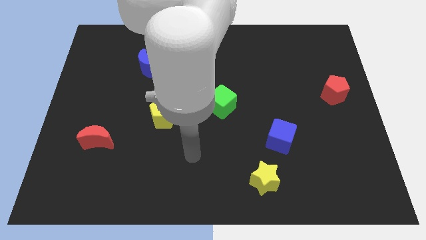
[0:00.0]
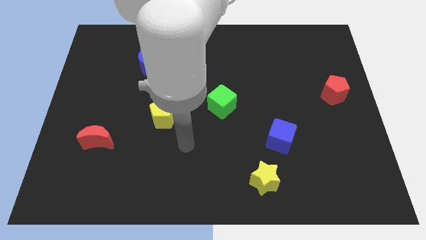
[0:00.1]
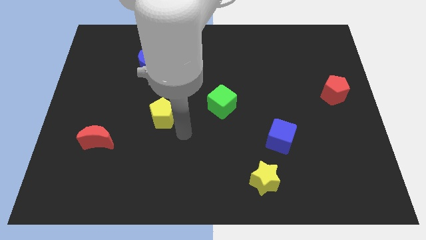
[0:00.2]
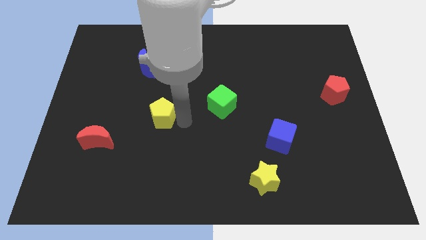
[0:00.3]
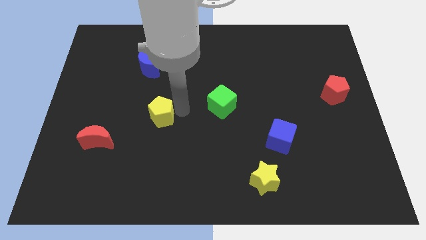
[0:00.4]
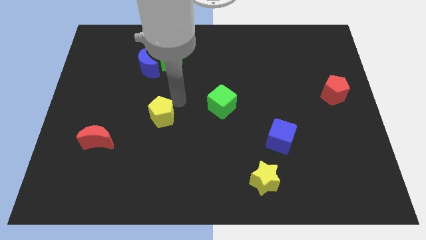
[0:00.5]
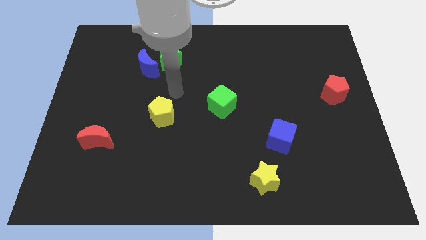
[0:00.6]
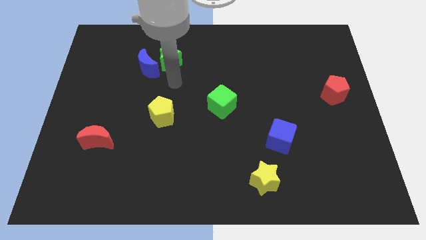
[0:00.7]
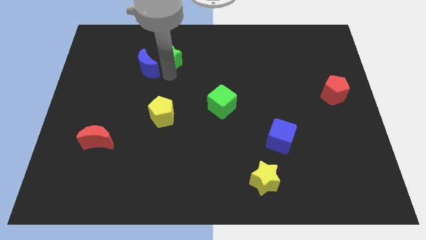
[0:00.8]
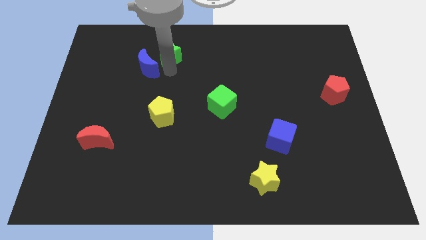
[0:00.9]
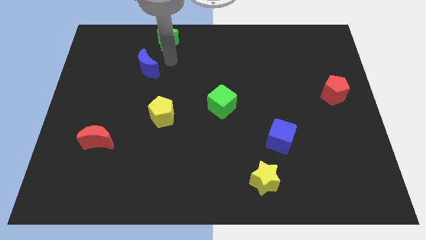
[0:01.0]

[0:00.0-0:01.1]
separate the blue moon from the green star

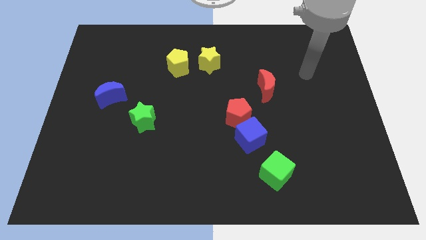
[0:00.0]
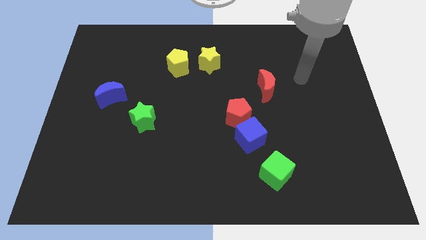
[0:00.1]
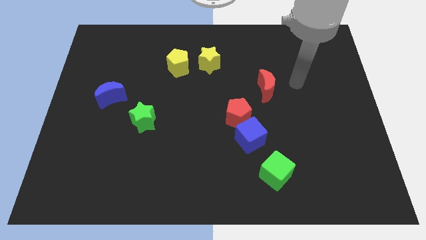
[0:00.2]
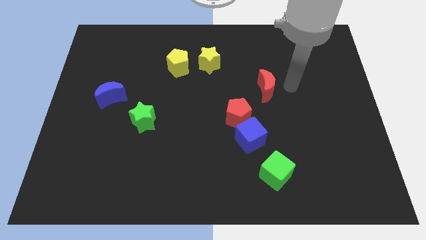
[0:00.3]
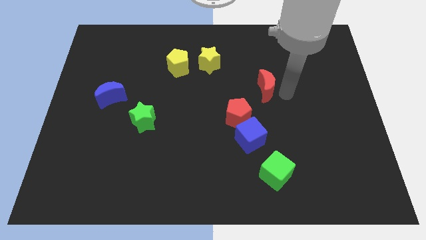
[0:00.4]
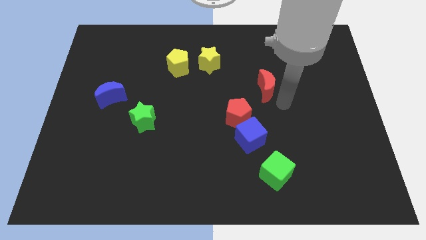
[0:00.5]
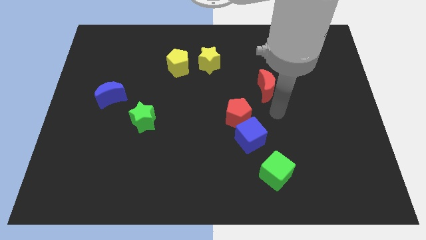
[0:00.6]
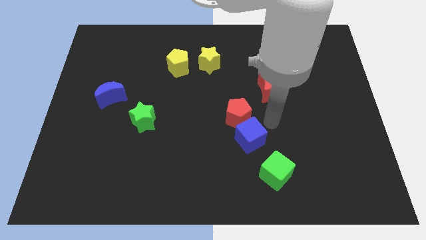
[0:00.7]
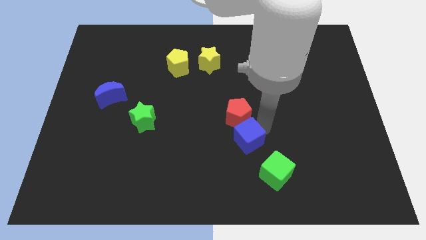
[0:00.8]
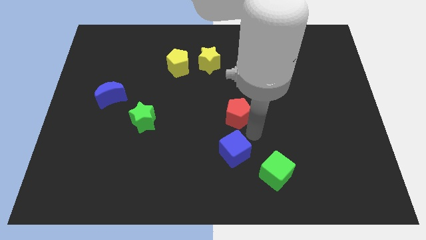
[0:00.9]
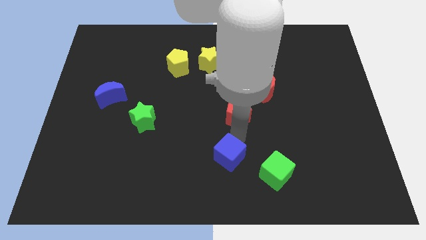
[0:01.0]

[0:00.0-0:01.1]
separate the red pentagon from the blue cube

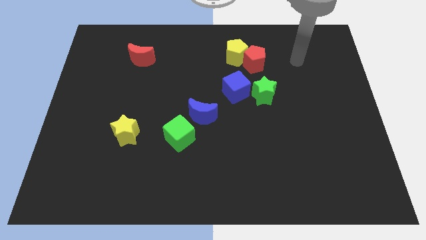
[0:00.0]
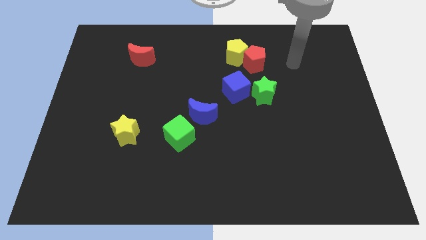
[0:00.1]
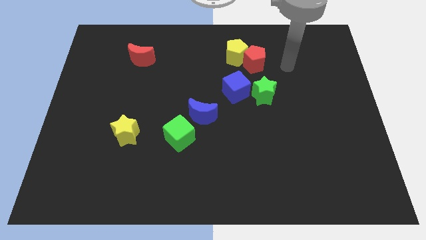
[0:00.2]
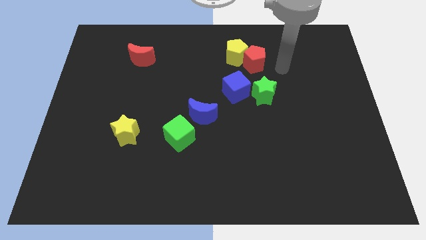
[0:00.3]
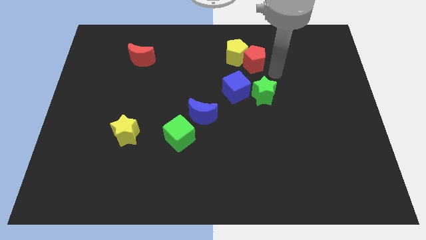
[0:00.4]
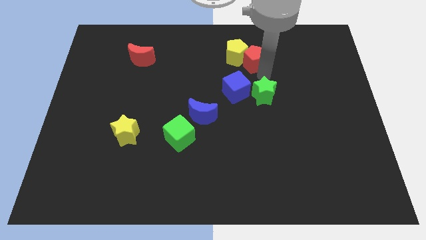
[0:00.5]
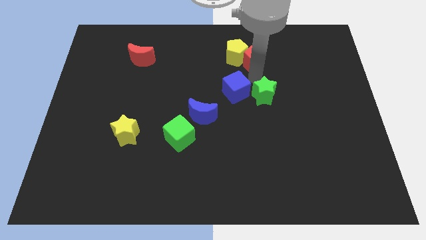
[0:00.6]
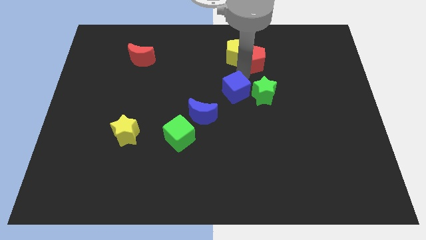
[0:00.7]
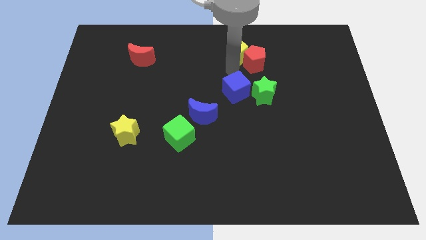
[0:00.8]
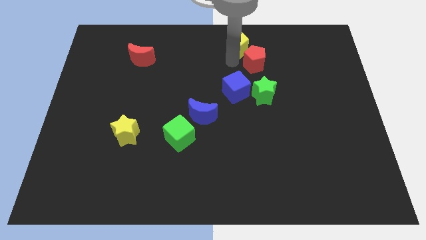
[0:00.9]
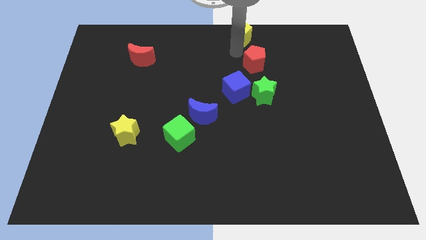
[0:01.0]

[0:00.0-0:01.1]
separate the red pentagon from the yellow pentagon

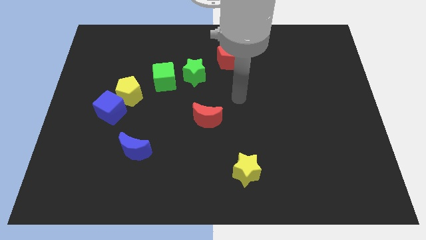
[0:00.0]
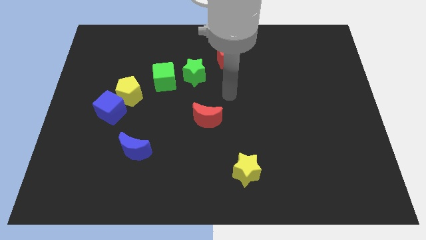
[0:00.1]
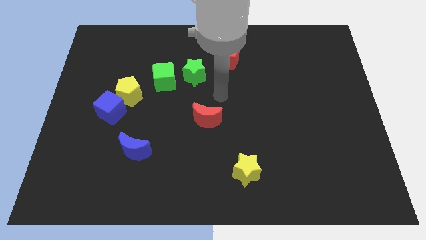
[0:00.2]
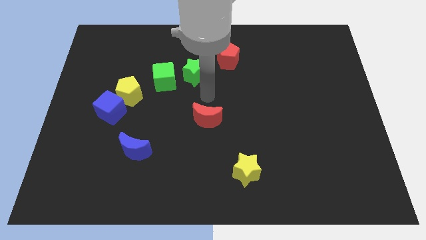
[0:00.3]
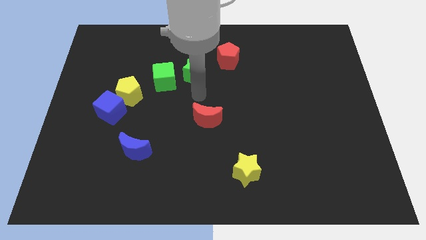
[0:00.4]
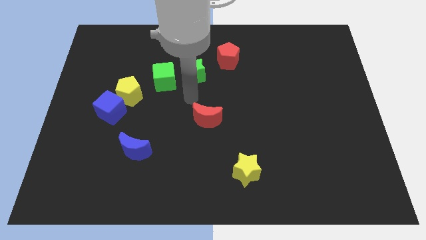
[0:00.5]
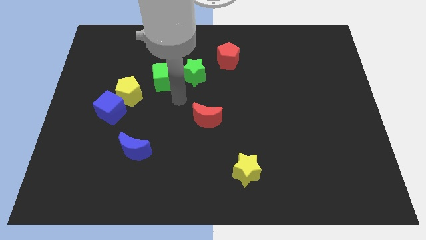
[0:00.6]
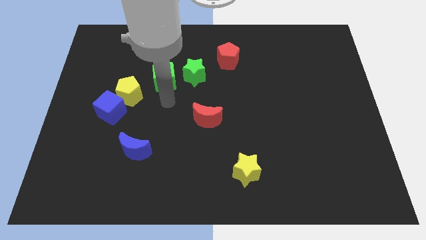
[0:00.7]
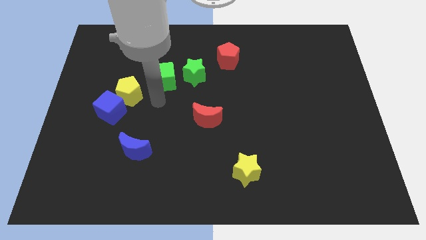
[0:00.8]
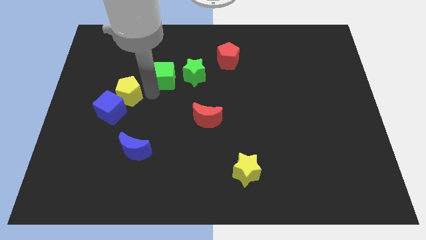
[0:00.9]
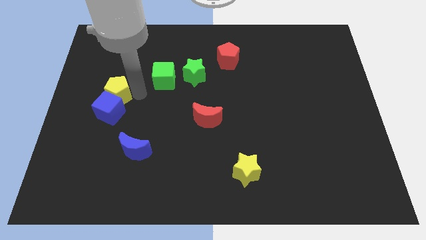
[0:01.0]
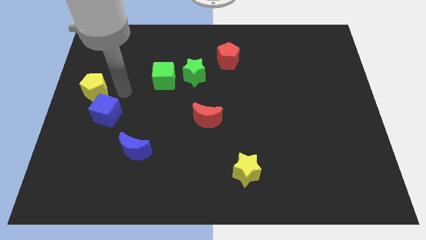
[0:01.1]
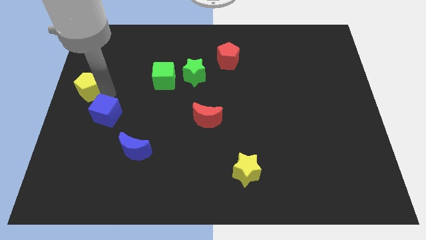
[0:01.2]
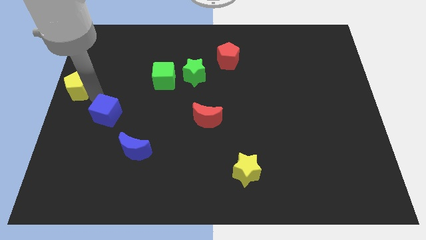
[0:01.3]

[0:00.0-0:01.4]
pull the blue cube apart from the yellow pentagon

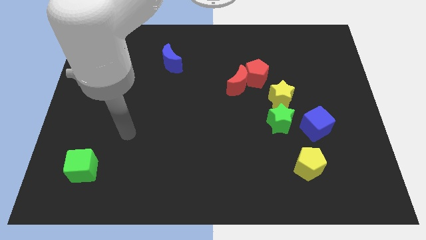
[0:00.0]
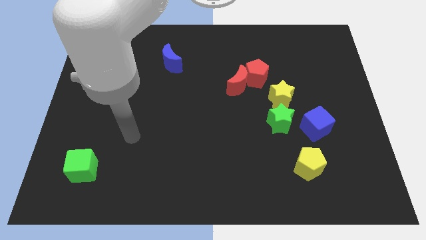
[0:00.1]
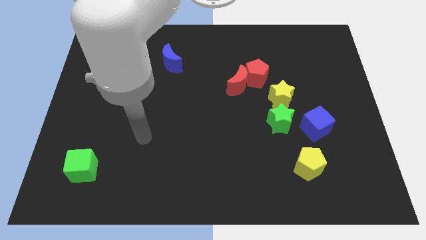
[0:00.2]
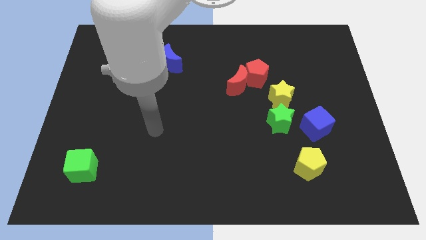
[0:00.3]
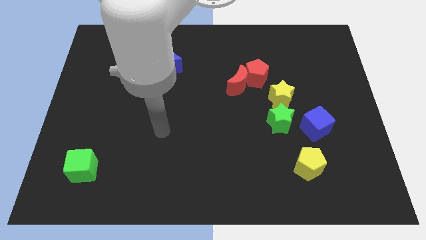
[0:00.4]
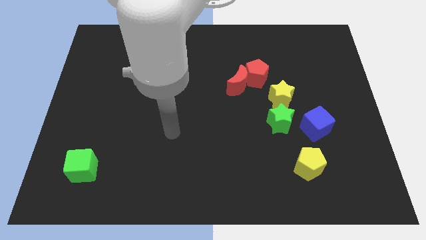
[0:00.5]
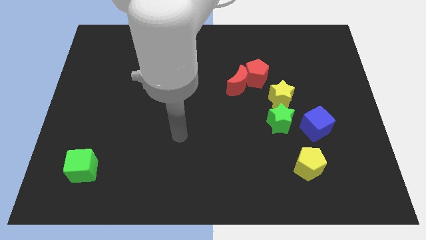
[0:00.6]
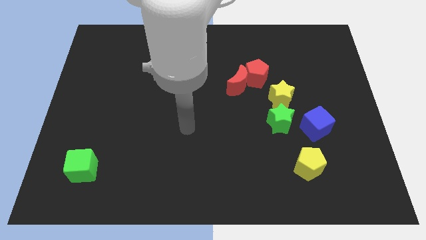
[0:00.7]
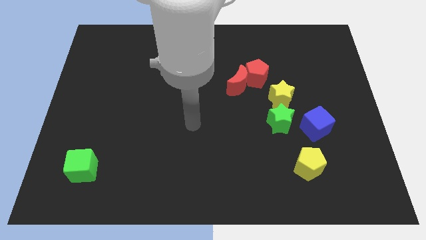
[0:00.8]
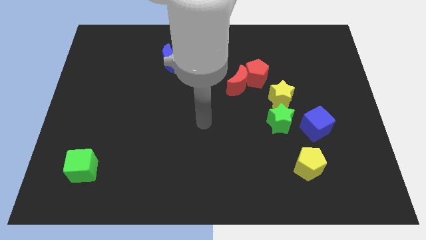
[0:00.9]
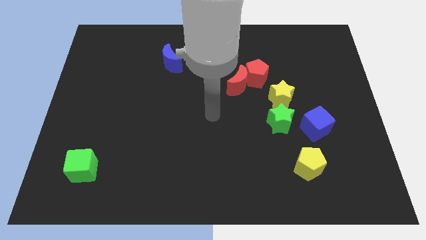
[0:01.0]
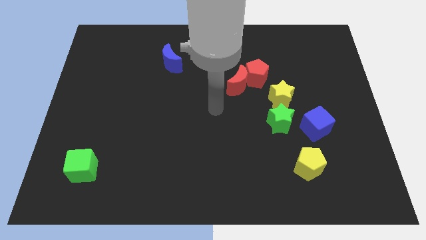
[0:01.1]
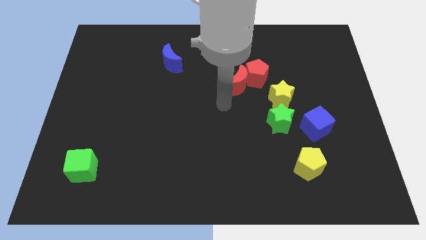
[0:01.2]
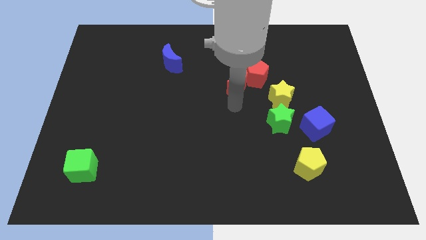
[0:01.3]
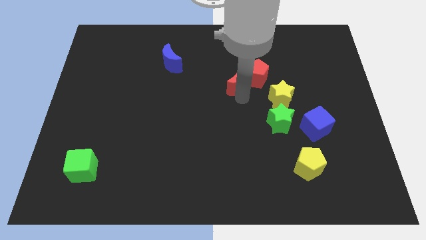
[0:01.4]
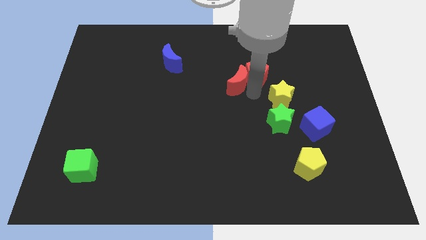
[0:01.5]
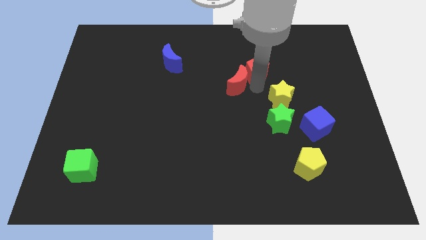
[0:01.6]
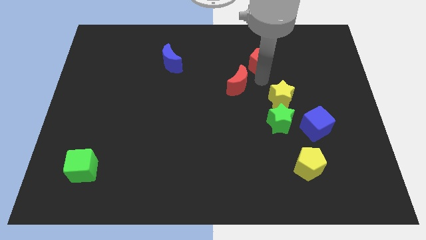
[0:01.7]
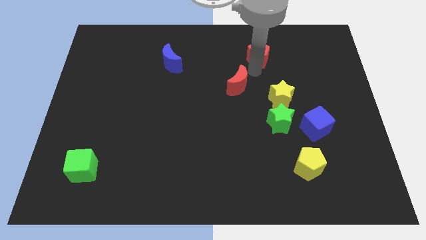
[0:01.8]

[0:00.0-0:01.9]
move the red moon away from the red pentagon

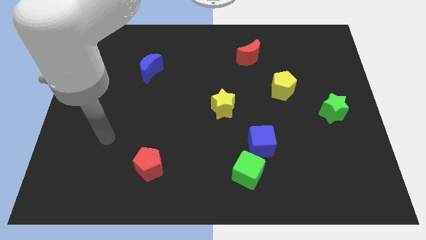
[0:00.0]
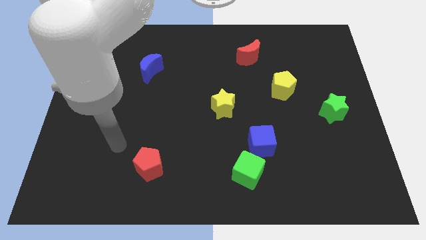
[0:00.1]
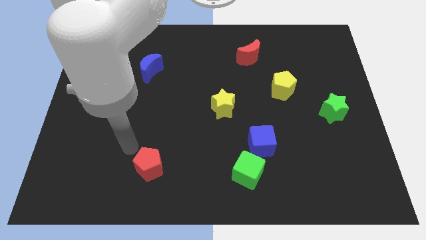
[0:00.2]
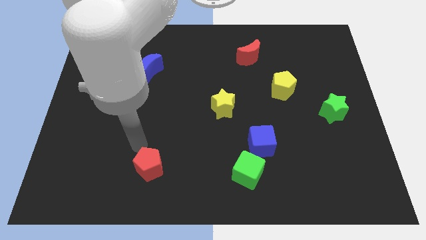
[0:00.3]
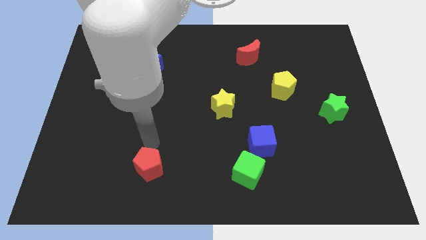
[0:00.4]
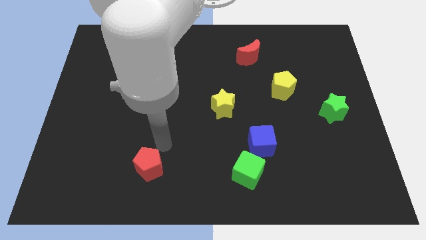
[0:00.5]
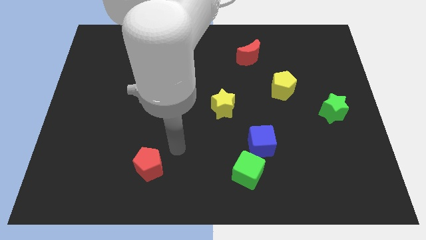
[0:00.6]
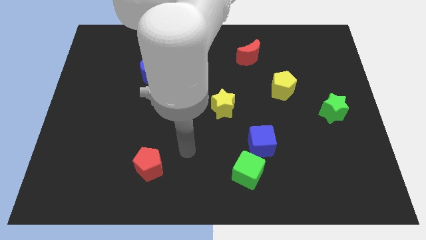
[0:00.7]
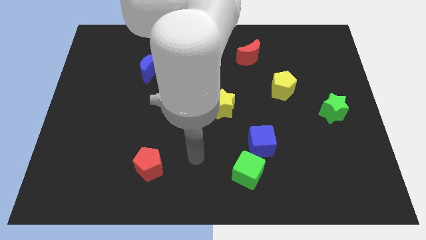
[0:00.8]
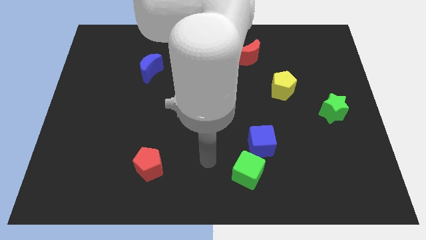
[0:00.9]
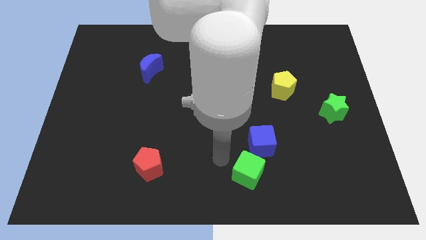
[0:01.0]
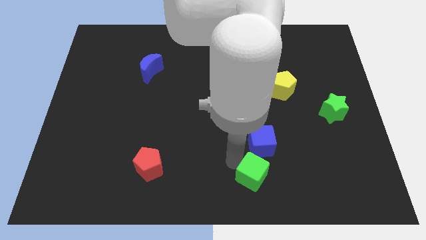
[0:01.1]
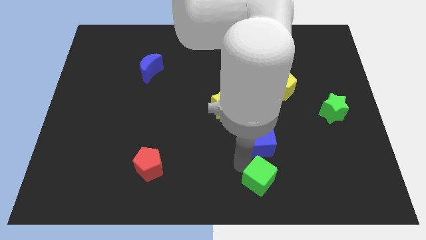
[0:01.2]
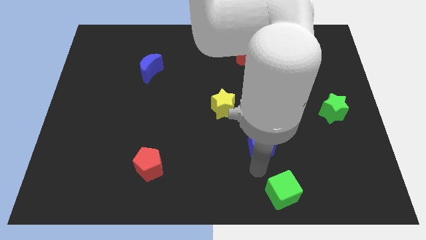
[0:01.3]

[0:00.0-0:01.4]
move the blue cube away from the green cube

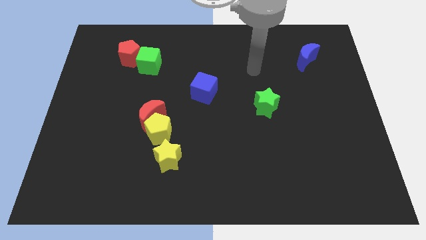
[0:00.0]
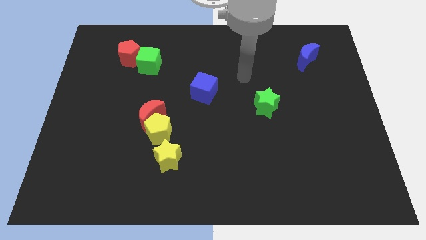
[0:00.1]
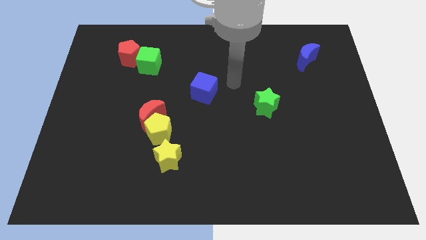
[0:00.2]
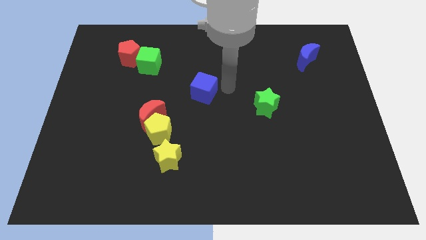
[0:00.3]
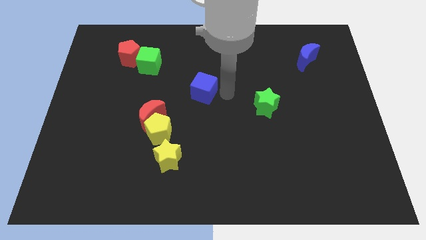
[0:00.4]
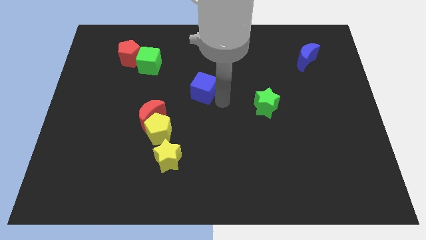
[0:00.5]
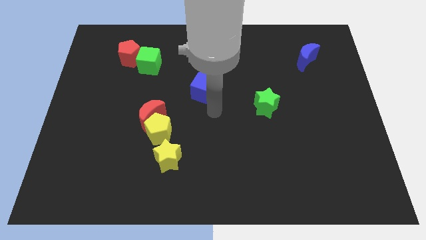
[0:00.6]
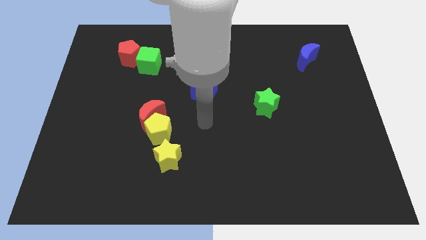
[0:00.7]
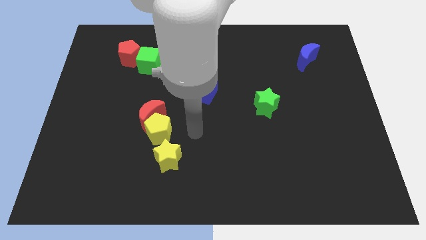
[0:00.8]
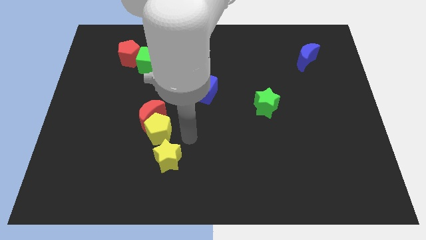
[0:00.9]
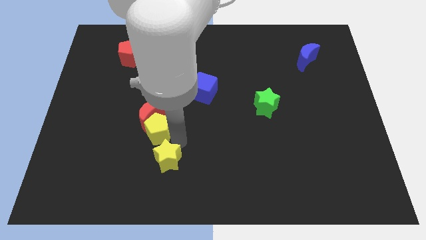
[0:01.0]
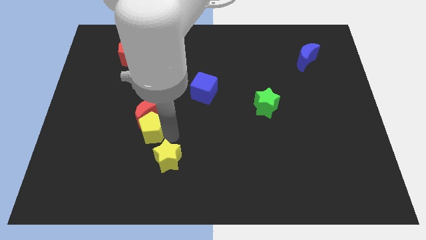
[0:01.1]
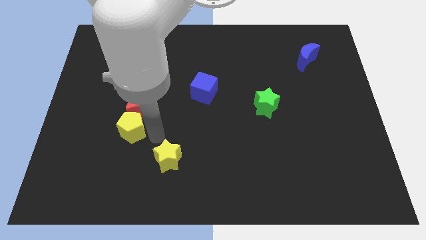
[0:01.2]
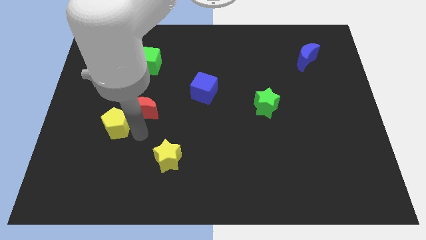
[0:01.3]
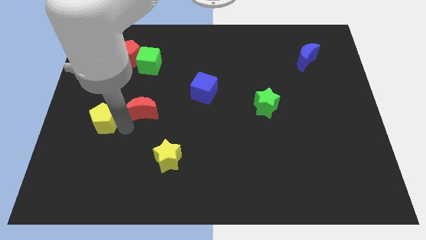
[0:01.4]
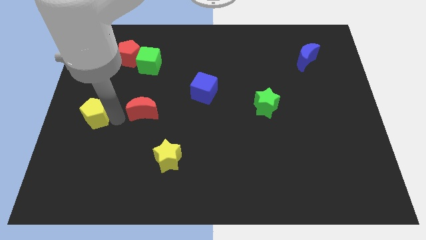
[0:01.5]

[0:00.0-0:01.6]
move the red moon away from the yellow pentagon
